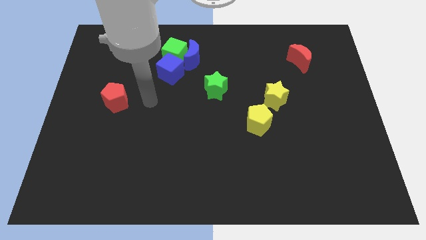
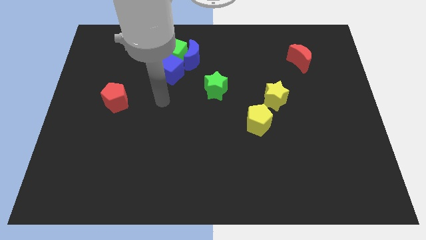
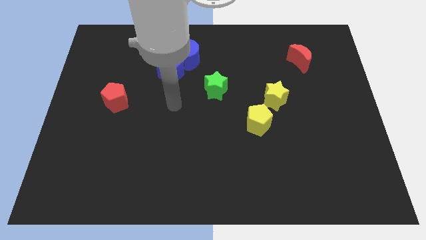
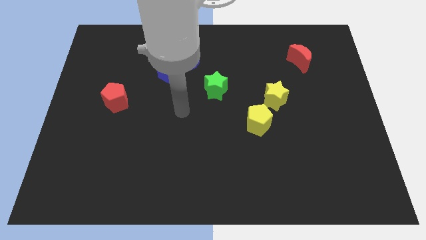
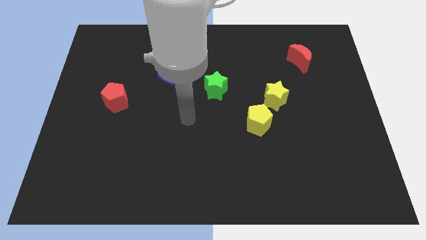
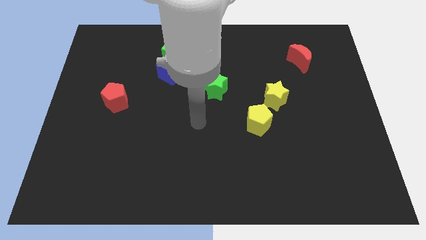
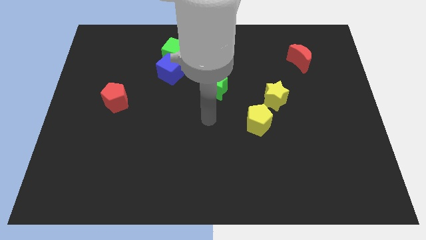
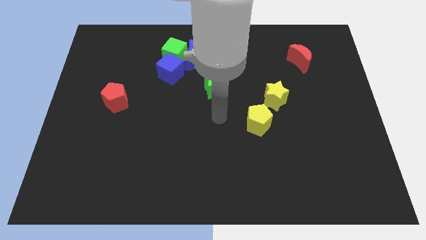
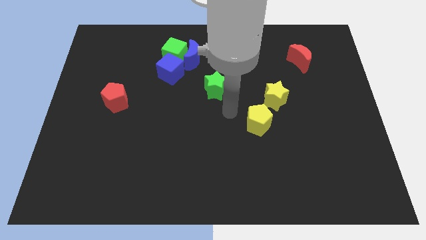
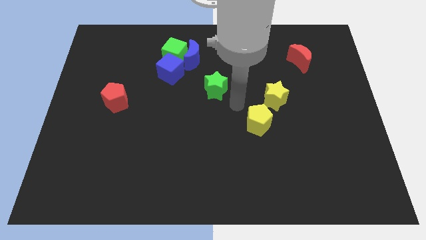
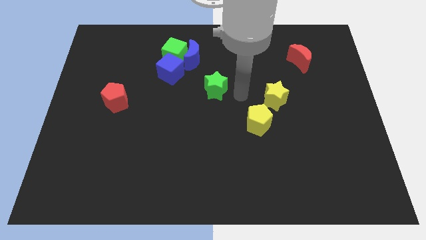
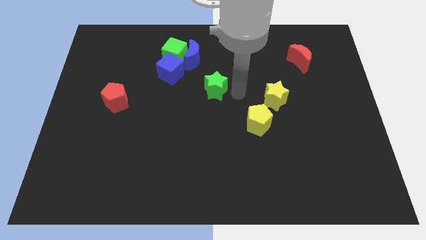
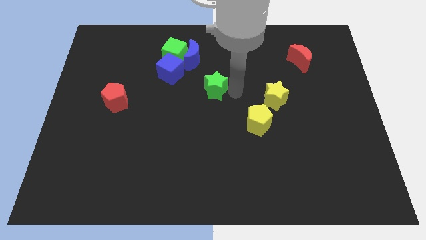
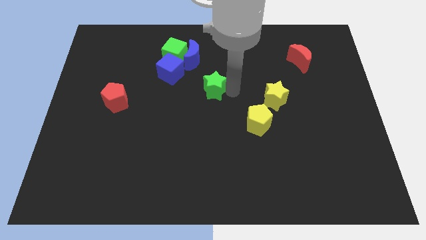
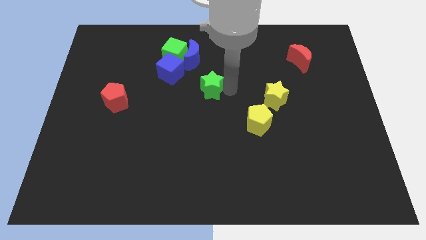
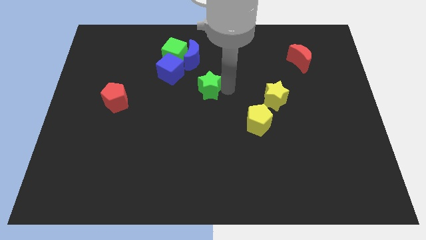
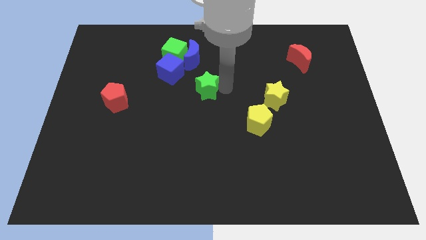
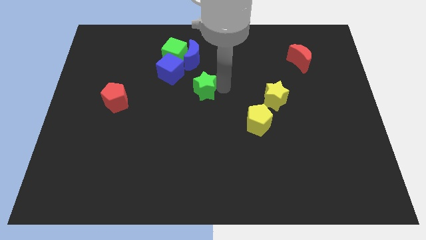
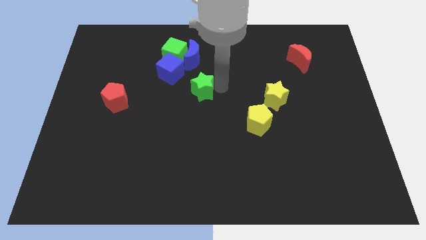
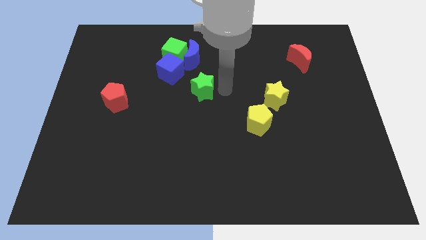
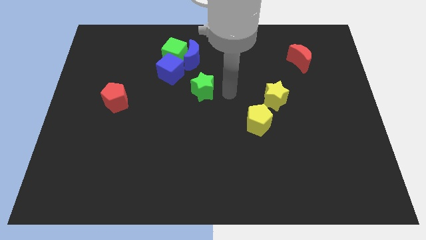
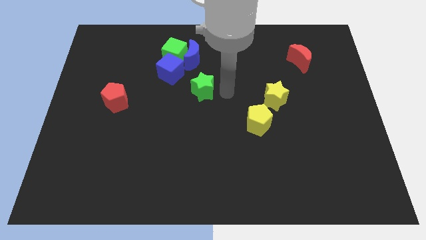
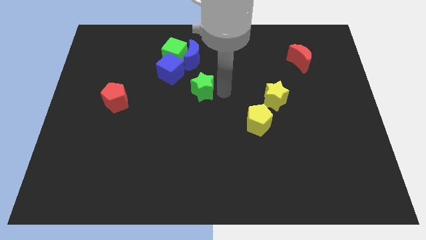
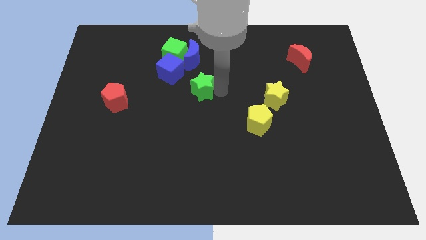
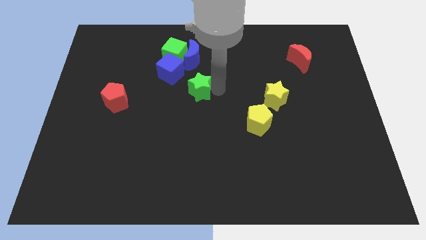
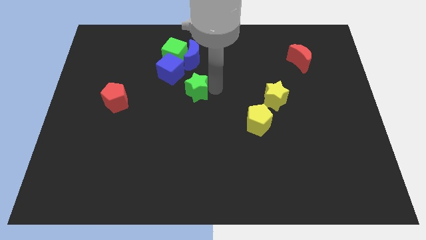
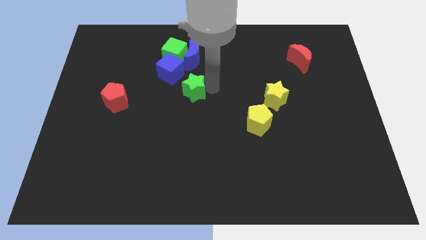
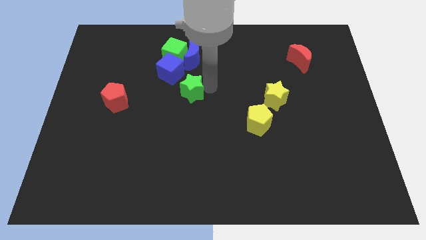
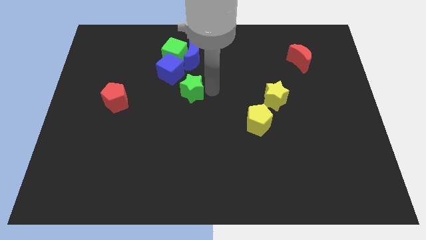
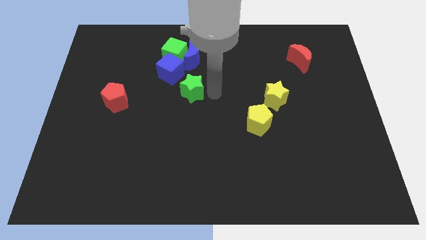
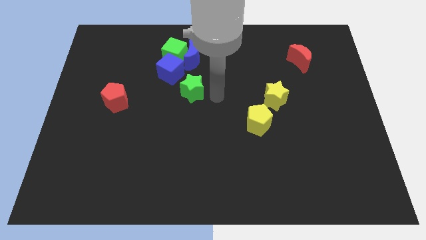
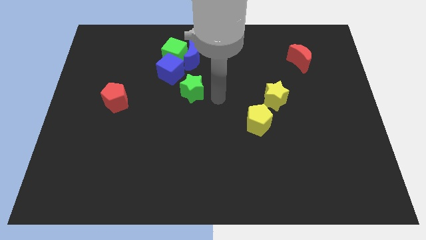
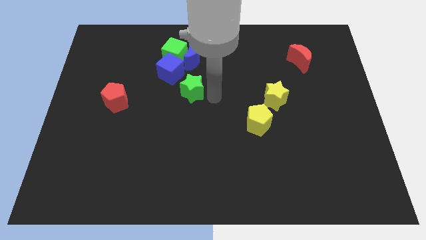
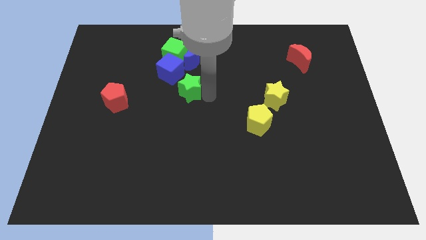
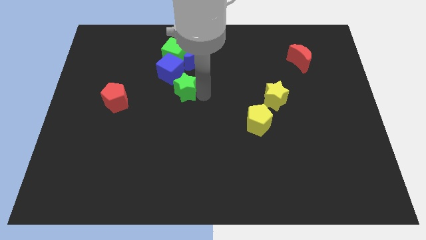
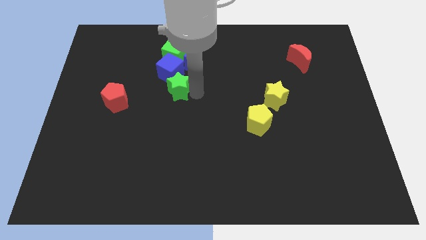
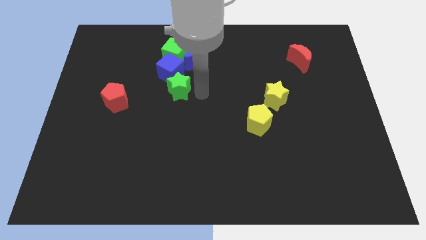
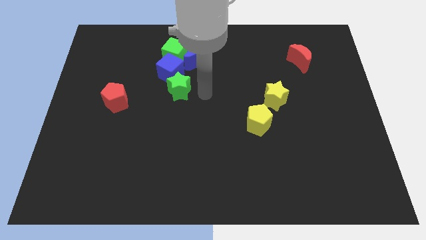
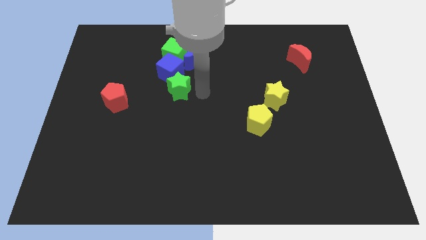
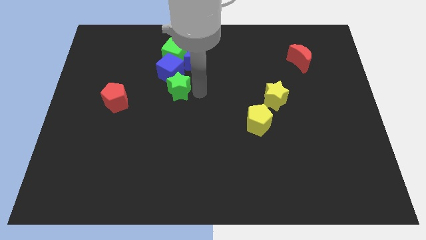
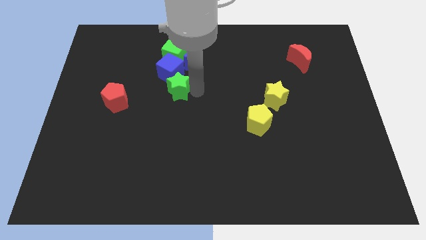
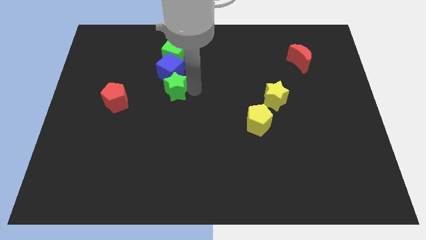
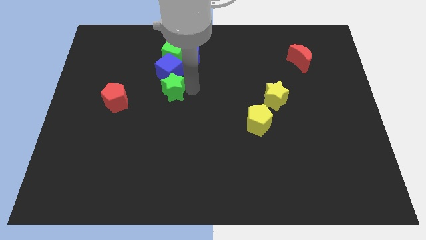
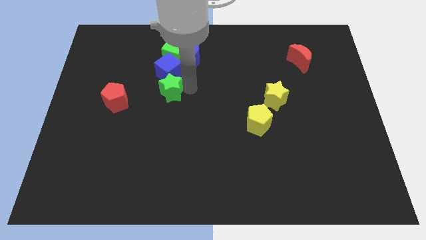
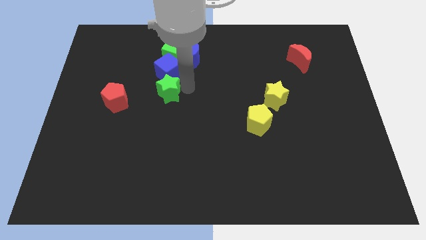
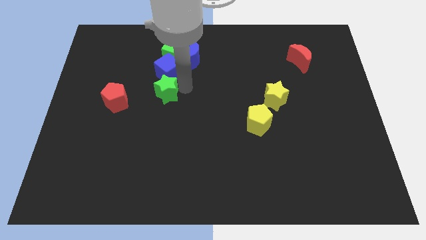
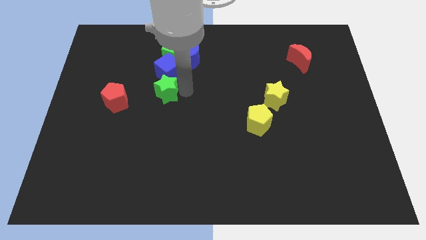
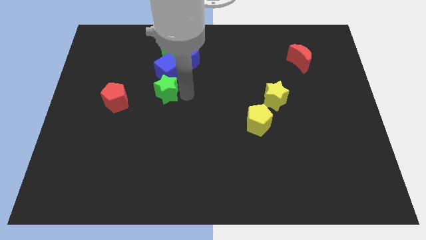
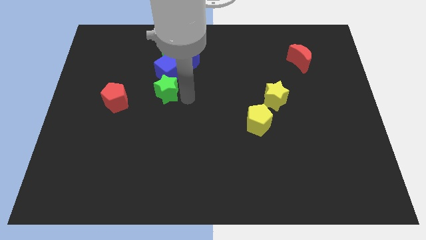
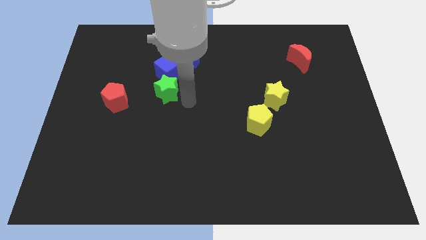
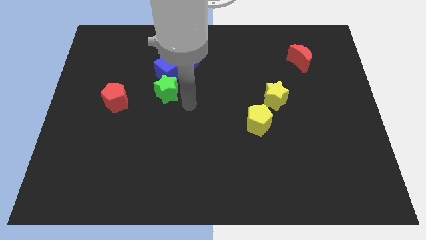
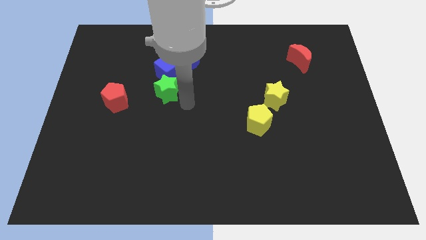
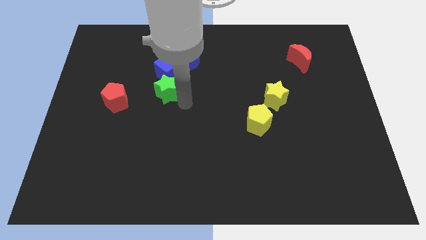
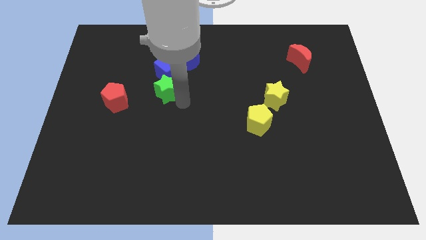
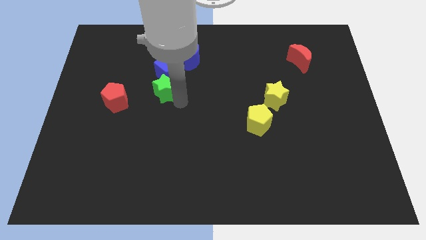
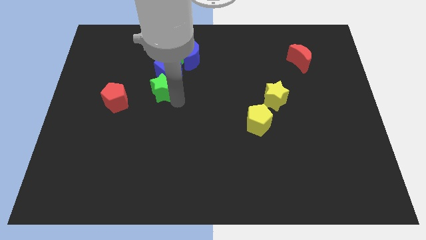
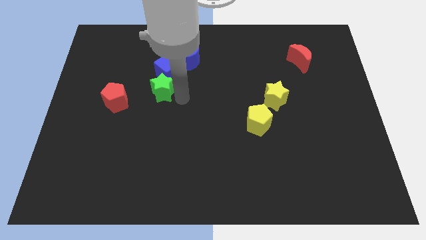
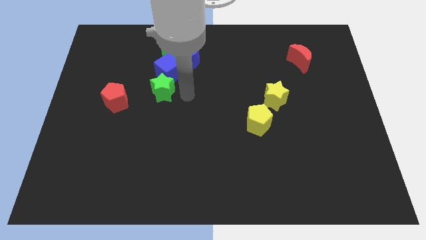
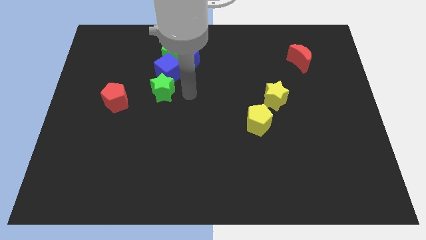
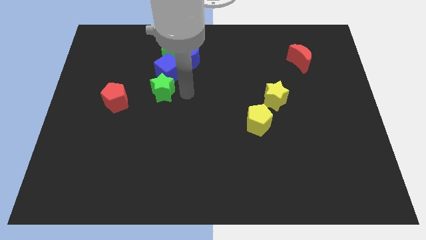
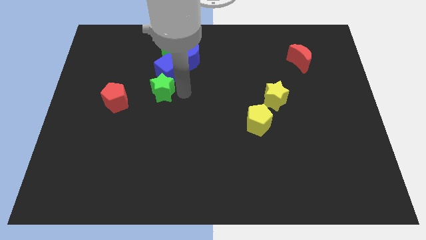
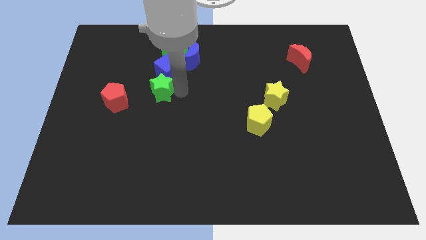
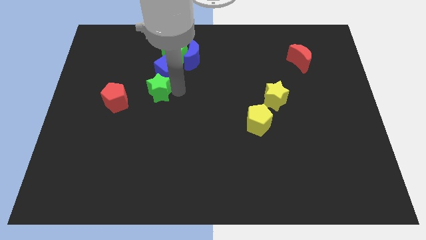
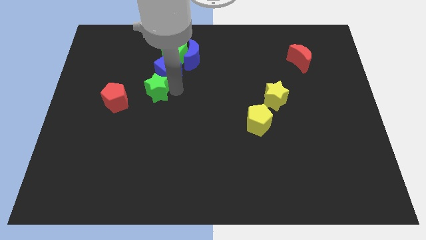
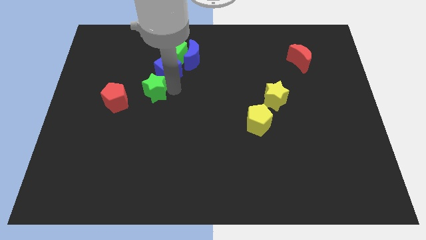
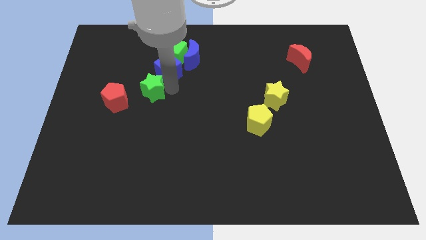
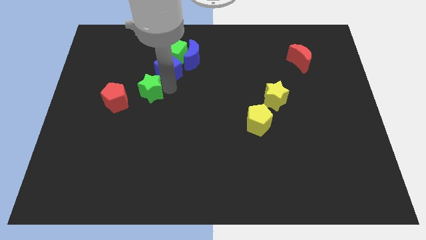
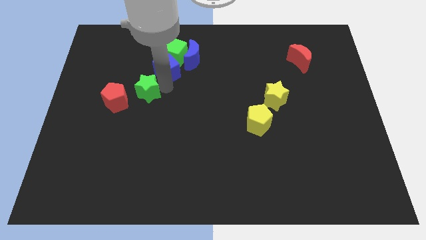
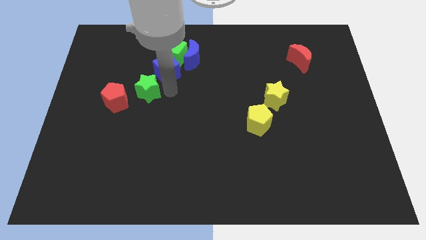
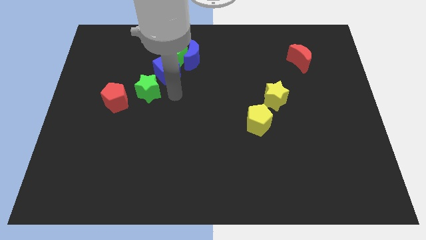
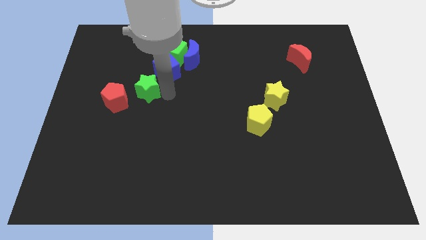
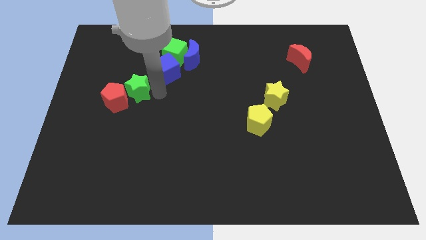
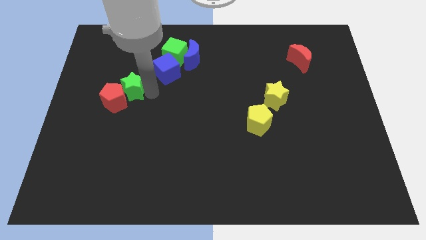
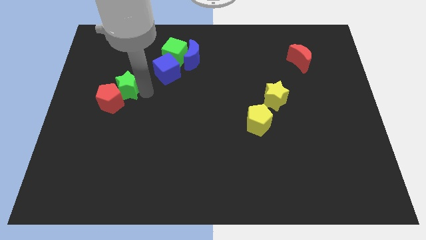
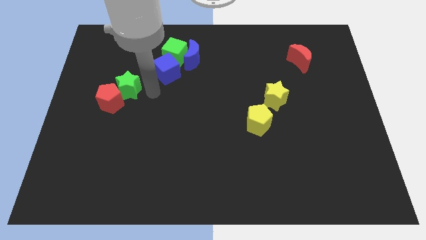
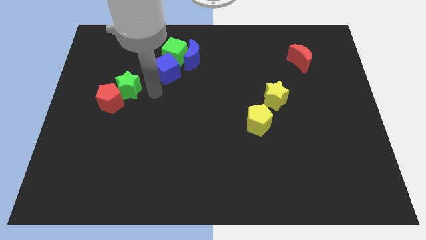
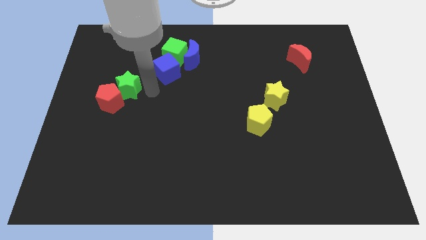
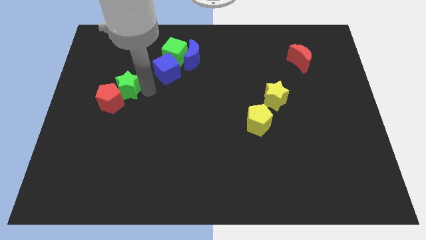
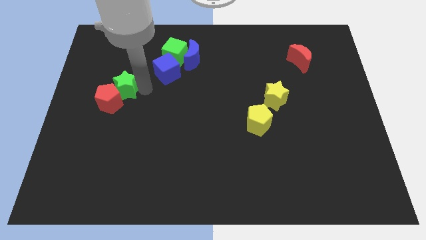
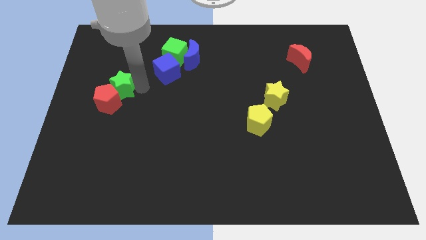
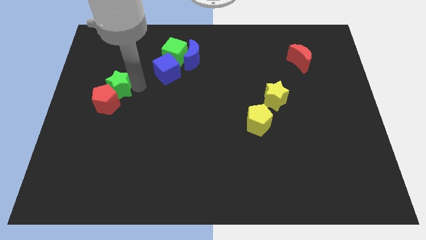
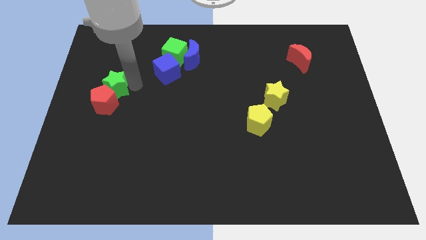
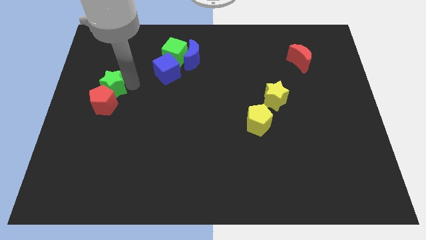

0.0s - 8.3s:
push the green star to the top left of the red pentagon
